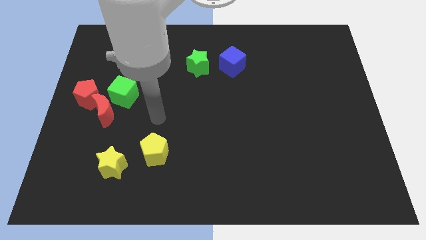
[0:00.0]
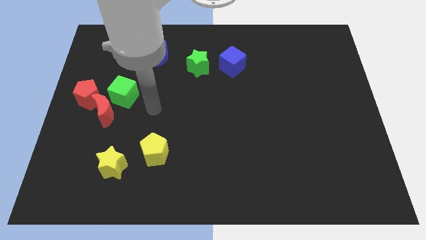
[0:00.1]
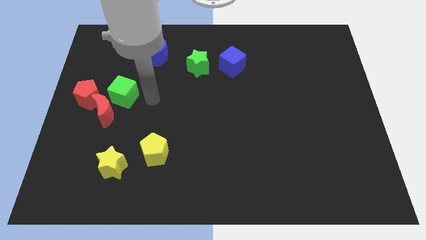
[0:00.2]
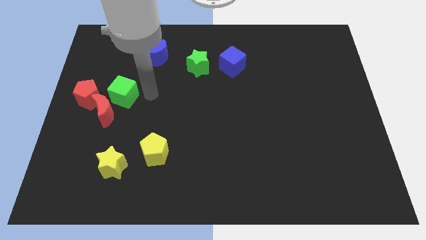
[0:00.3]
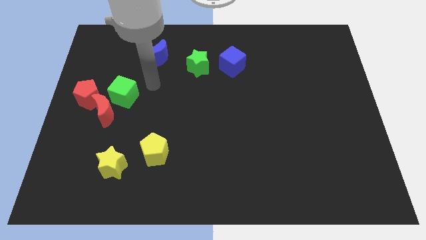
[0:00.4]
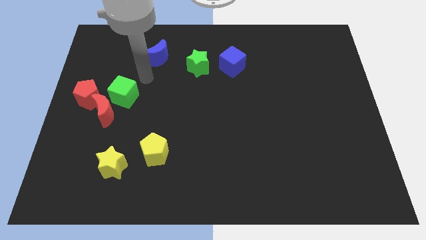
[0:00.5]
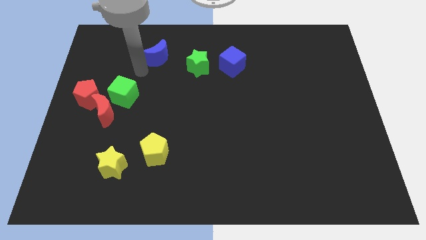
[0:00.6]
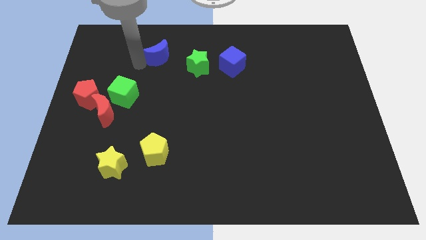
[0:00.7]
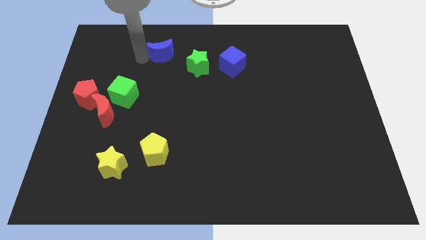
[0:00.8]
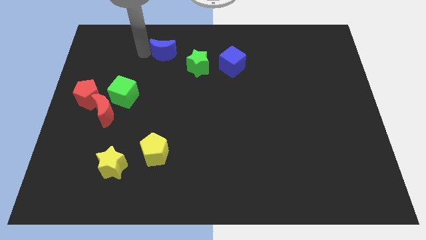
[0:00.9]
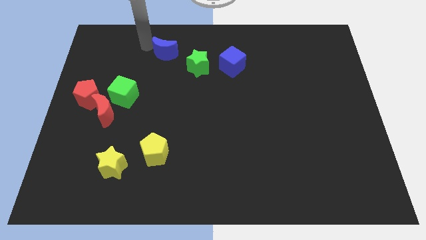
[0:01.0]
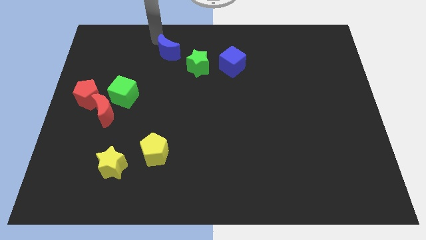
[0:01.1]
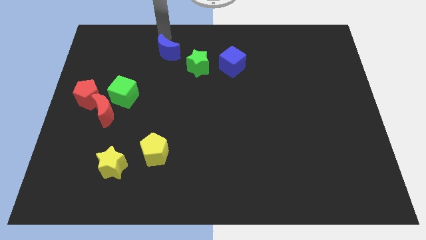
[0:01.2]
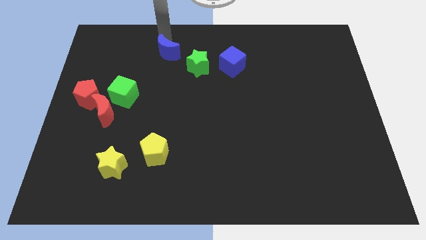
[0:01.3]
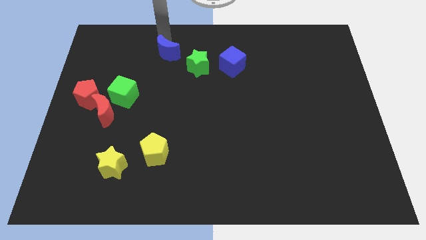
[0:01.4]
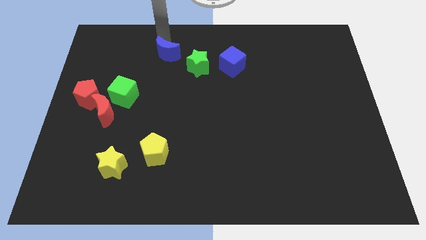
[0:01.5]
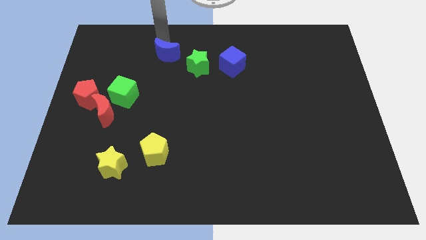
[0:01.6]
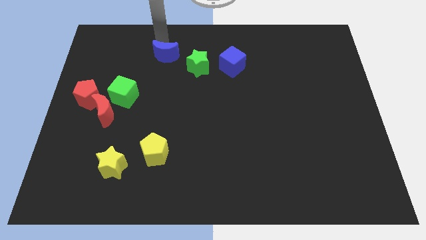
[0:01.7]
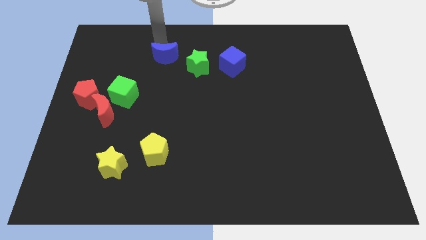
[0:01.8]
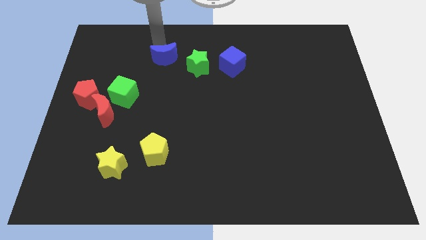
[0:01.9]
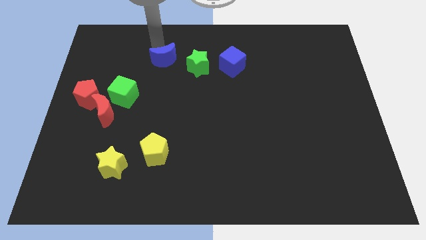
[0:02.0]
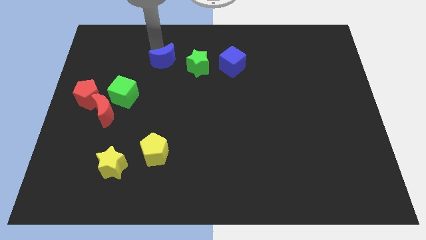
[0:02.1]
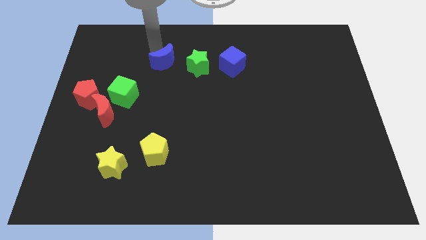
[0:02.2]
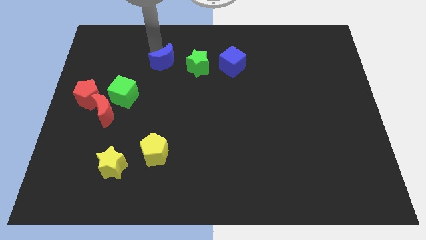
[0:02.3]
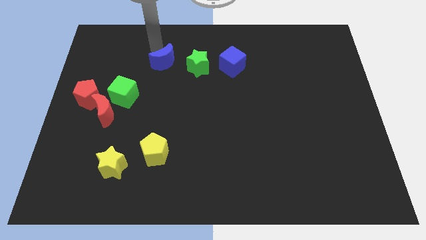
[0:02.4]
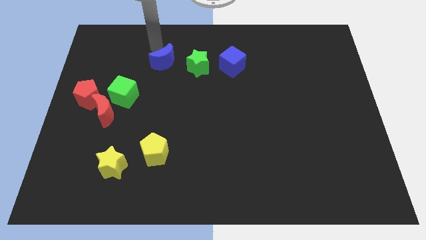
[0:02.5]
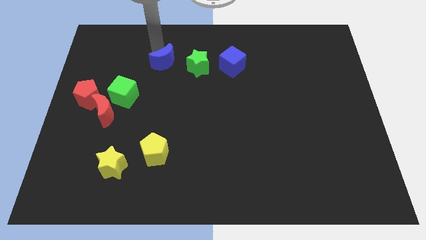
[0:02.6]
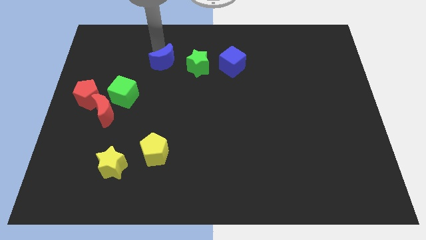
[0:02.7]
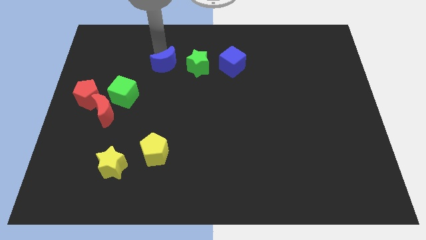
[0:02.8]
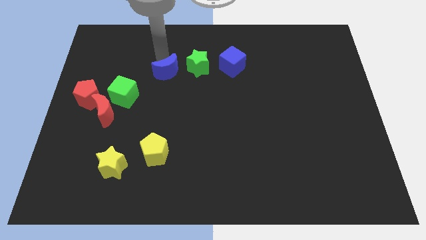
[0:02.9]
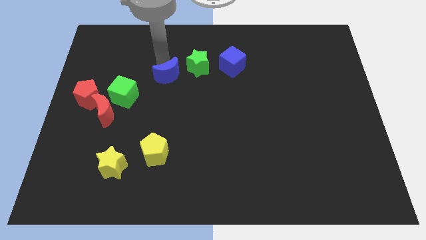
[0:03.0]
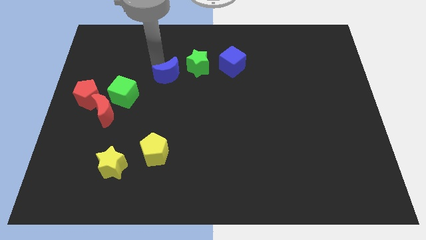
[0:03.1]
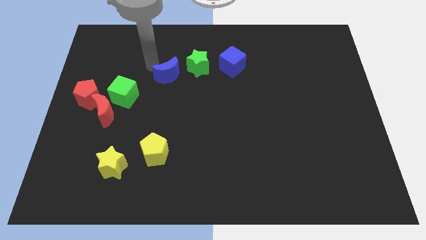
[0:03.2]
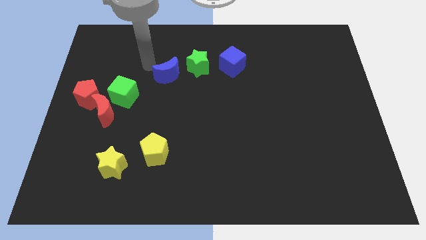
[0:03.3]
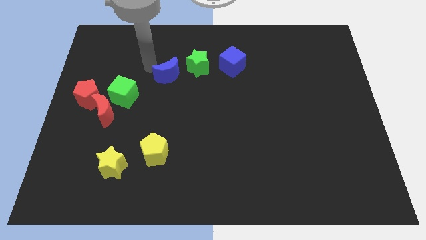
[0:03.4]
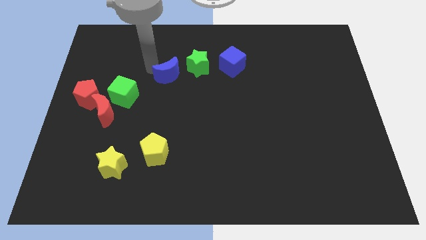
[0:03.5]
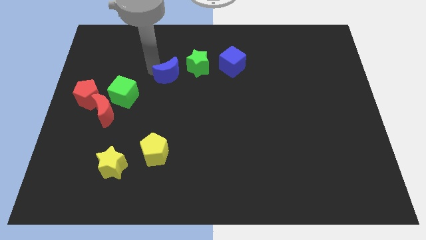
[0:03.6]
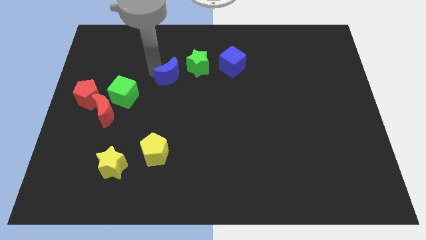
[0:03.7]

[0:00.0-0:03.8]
slightly move the blue moon downwards and right diagonally

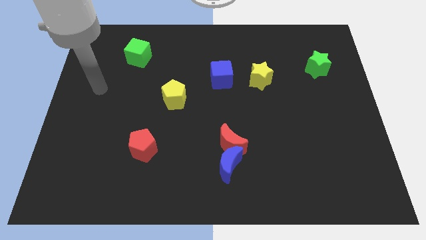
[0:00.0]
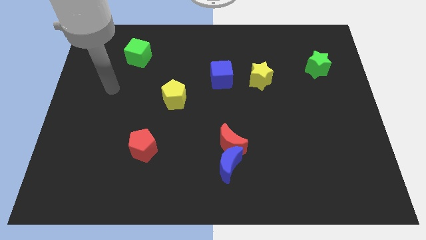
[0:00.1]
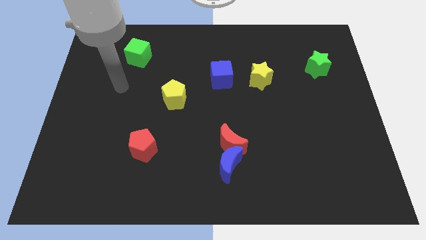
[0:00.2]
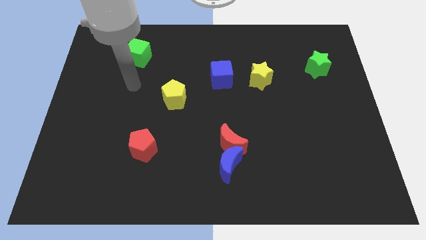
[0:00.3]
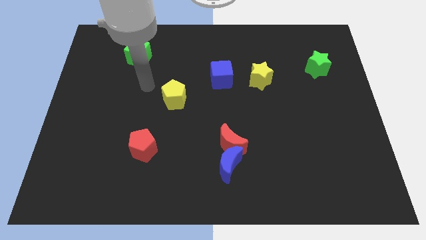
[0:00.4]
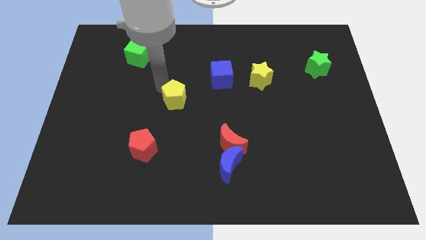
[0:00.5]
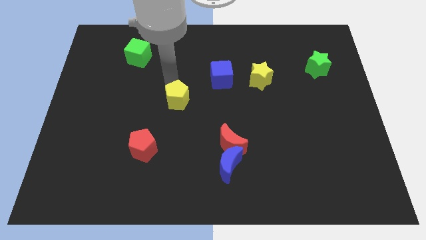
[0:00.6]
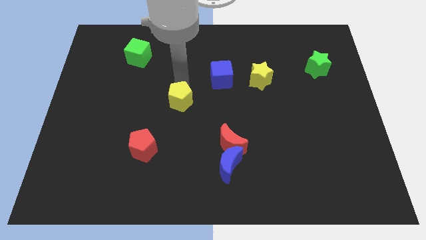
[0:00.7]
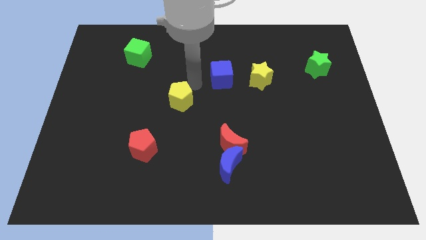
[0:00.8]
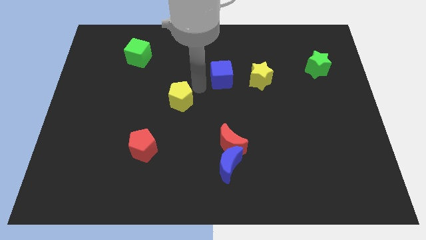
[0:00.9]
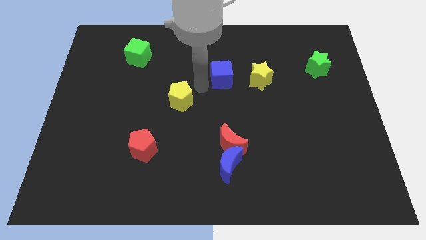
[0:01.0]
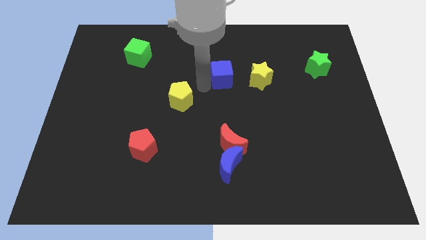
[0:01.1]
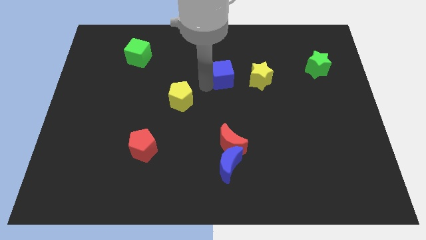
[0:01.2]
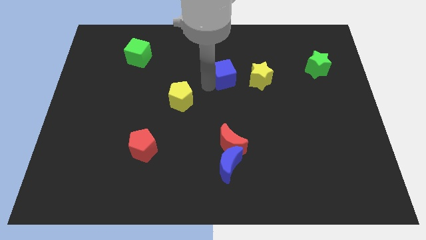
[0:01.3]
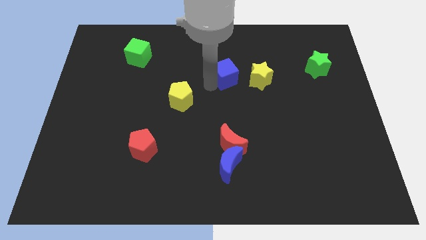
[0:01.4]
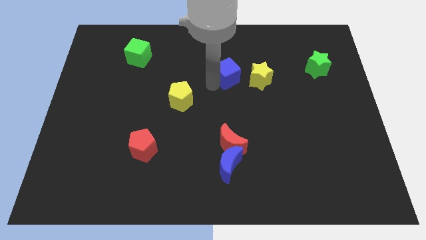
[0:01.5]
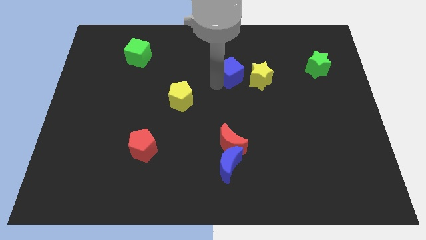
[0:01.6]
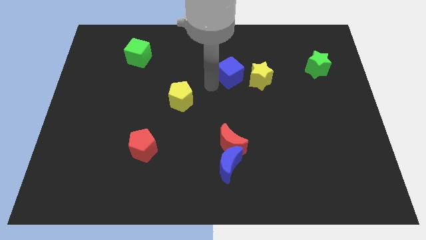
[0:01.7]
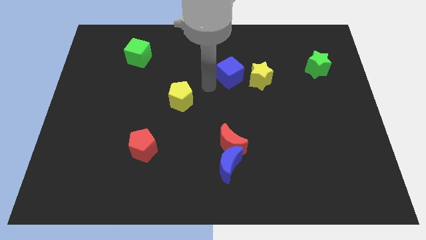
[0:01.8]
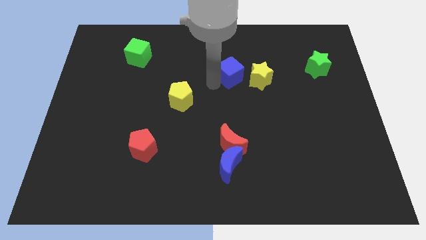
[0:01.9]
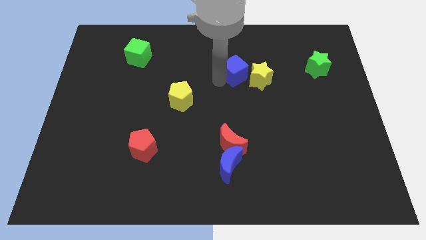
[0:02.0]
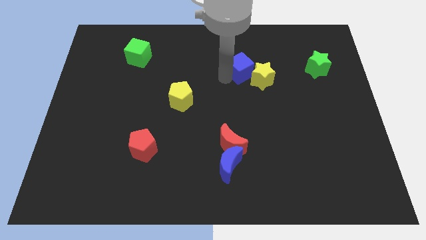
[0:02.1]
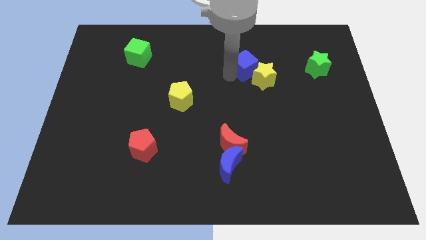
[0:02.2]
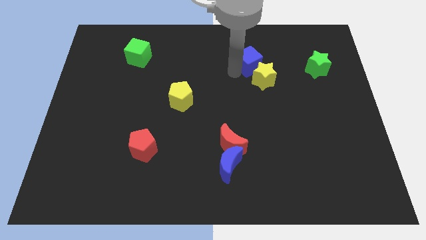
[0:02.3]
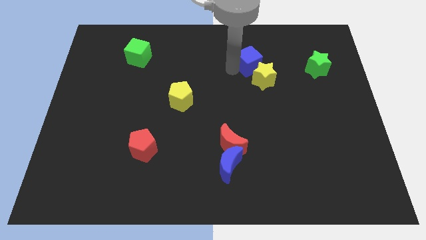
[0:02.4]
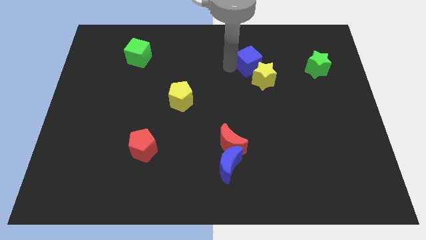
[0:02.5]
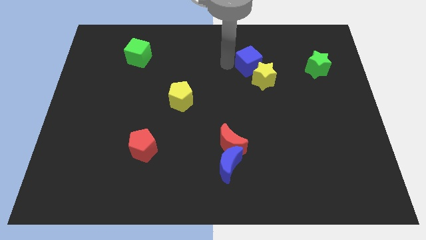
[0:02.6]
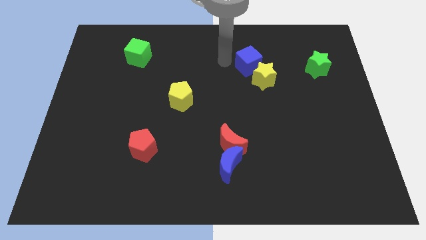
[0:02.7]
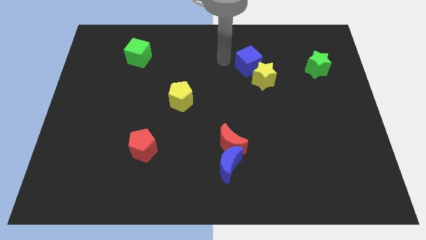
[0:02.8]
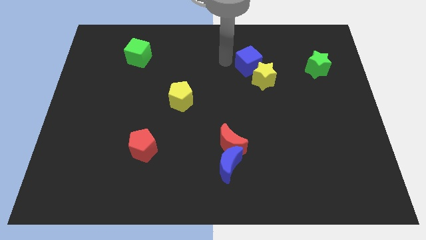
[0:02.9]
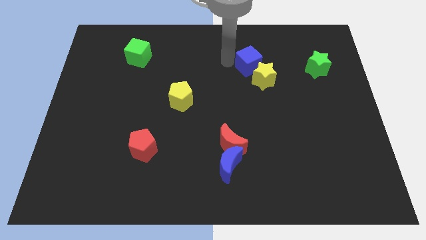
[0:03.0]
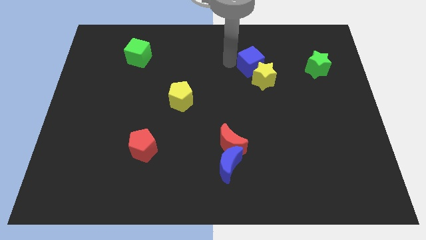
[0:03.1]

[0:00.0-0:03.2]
slide the blue cube somewhat to the right

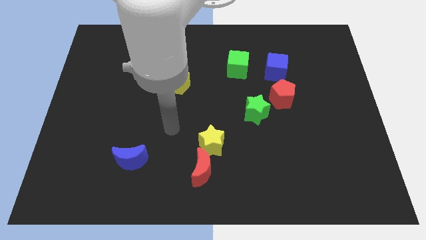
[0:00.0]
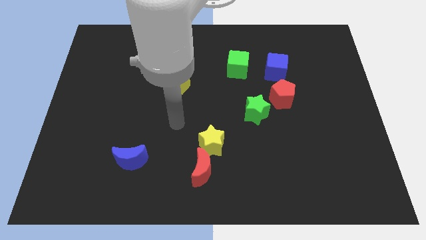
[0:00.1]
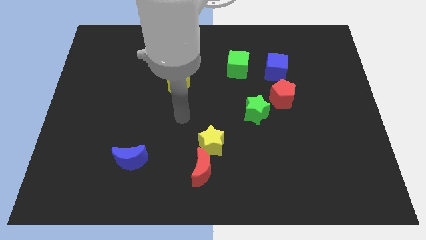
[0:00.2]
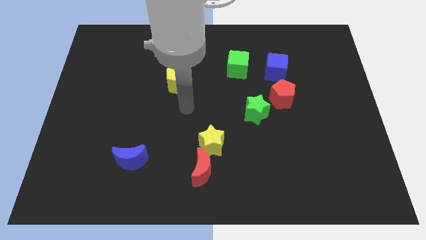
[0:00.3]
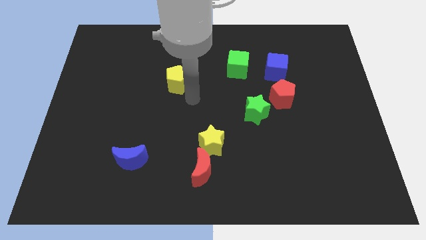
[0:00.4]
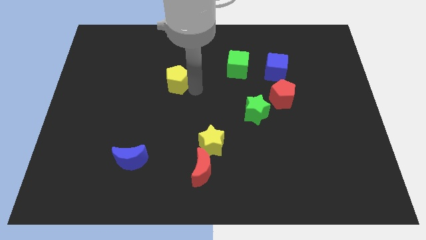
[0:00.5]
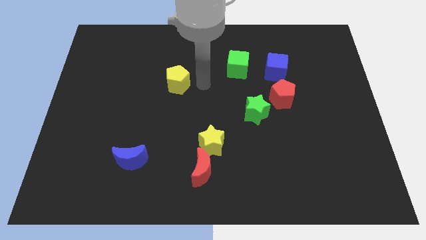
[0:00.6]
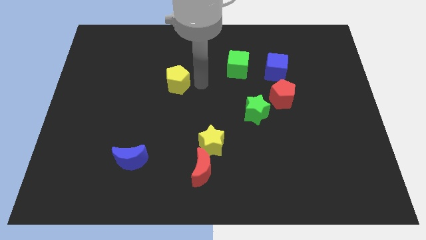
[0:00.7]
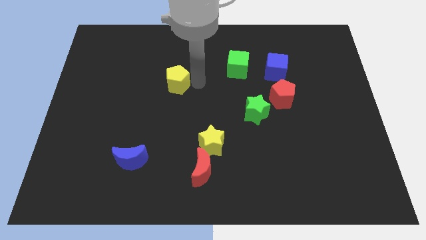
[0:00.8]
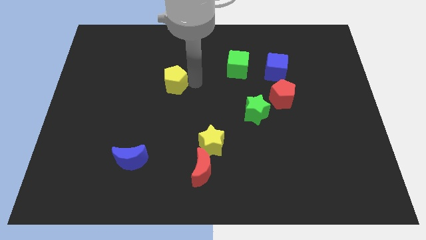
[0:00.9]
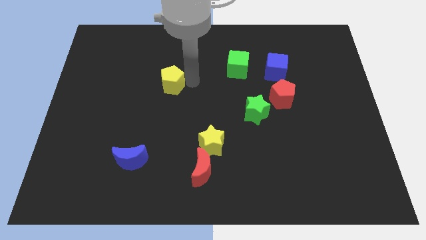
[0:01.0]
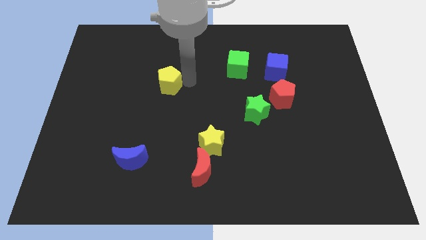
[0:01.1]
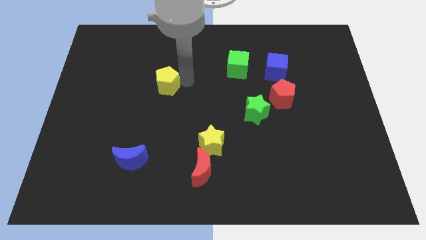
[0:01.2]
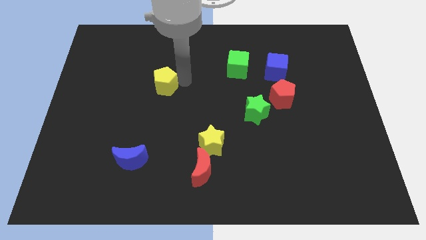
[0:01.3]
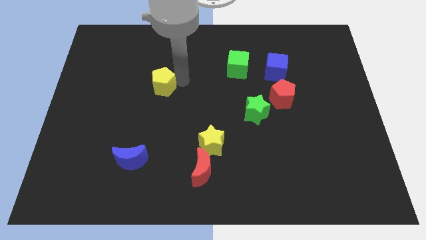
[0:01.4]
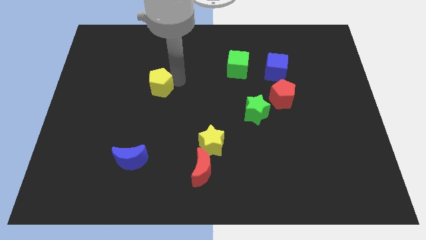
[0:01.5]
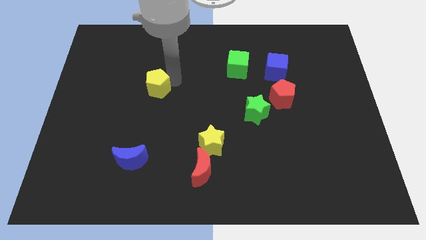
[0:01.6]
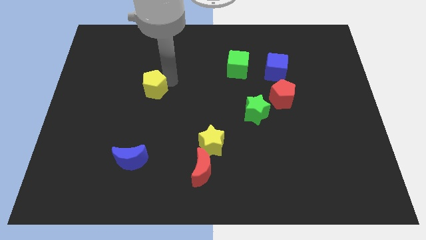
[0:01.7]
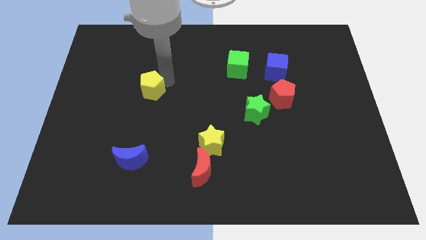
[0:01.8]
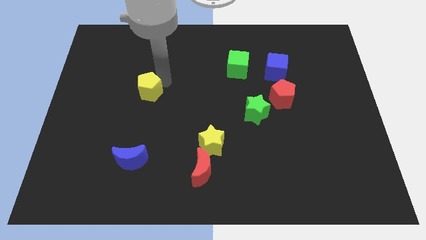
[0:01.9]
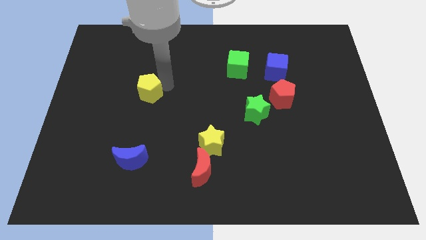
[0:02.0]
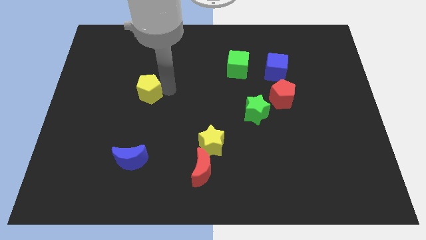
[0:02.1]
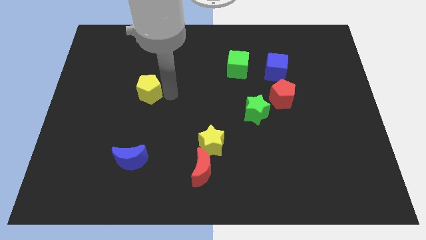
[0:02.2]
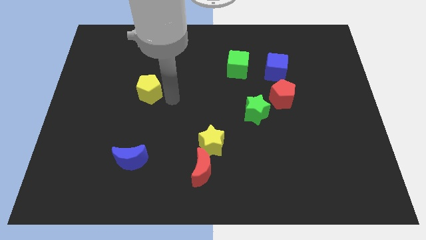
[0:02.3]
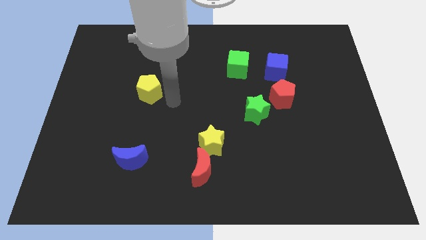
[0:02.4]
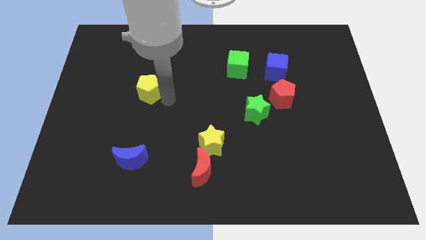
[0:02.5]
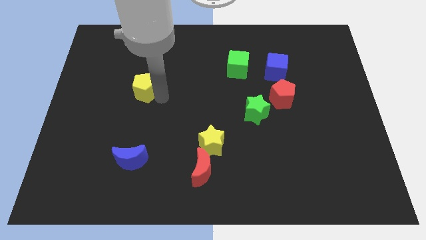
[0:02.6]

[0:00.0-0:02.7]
push the yellow pentagon somewhat left
